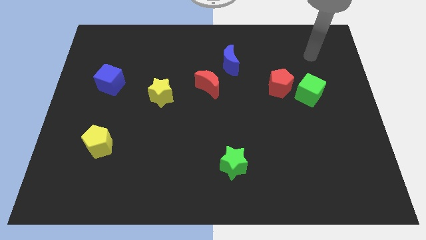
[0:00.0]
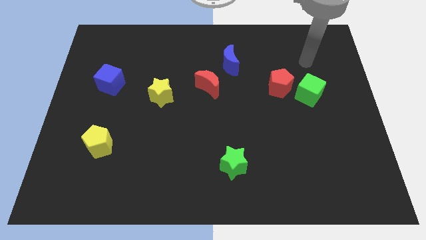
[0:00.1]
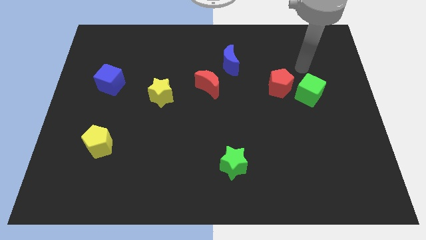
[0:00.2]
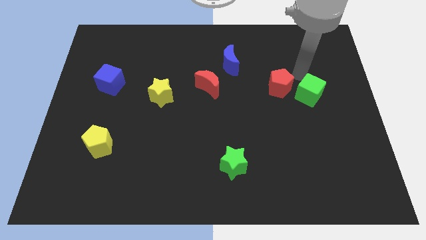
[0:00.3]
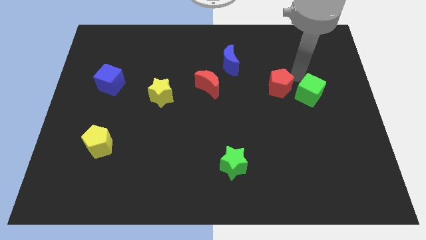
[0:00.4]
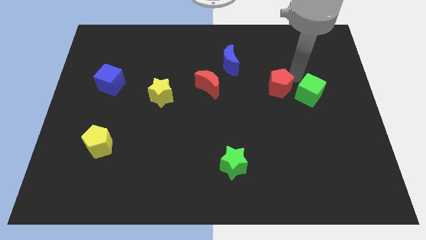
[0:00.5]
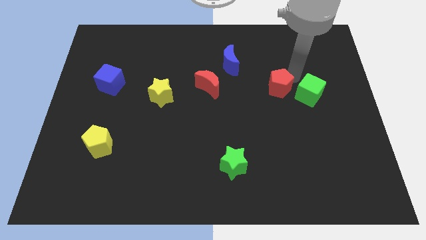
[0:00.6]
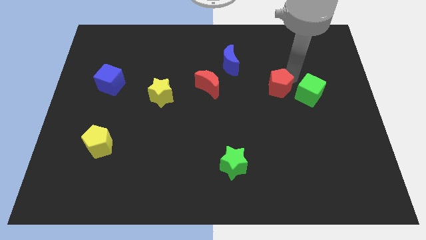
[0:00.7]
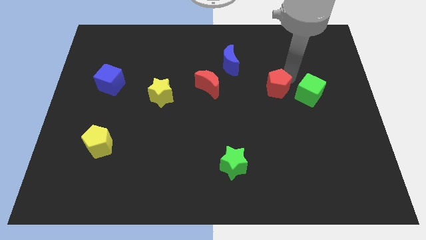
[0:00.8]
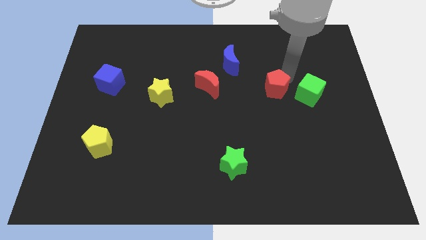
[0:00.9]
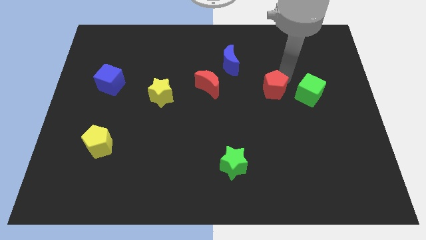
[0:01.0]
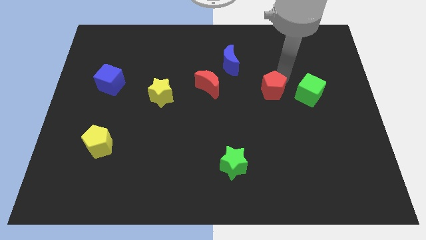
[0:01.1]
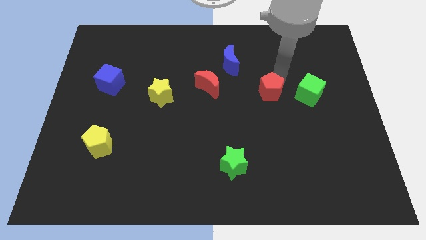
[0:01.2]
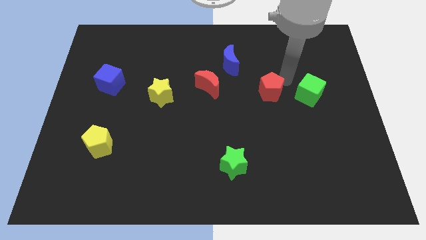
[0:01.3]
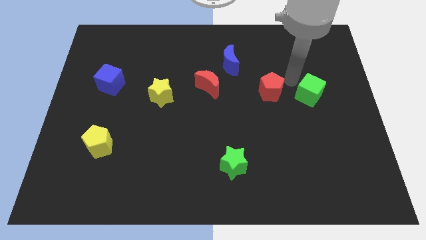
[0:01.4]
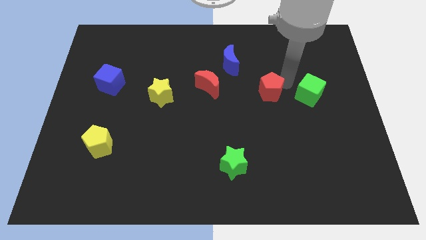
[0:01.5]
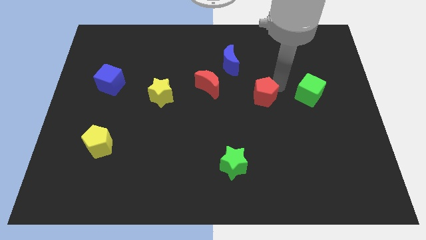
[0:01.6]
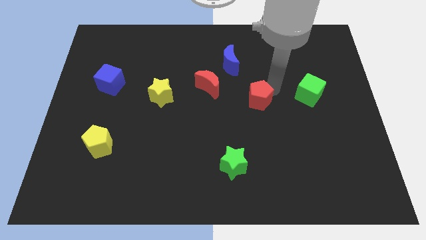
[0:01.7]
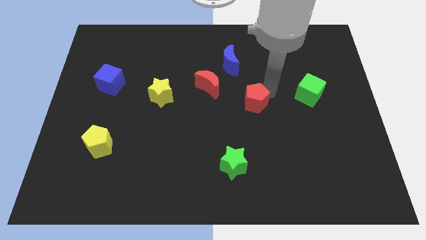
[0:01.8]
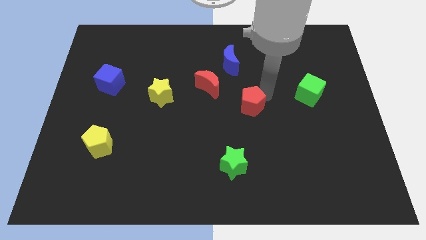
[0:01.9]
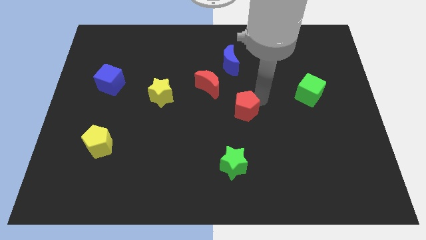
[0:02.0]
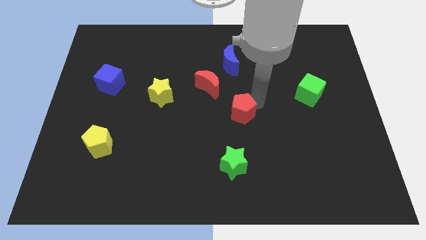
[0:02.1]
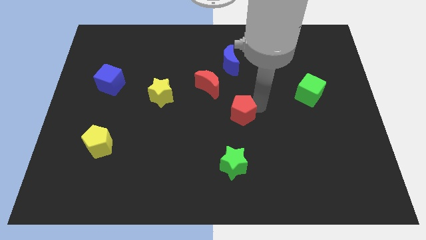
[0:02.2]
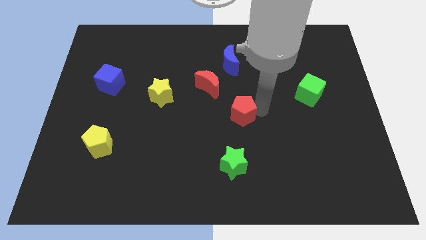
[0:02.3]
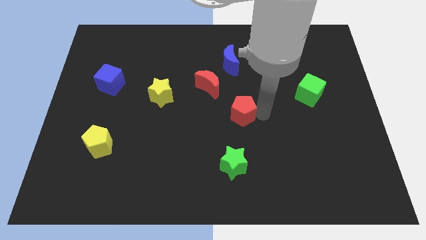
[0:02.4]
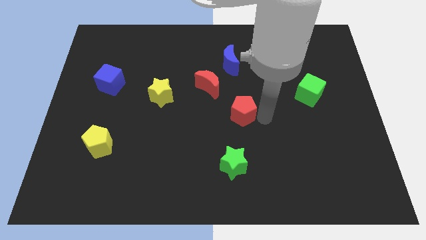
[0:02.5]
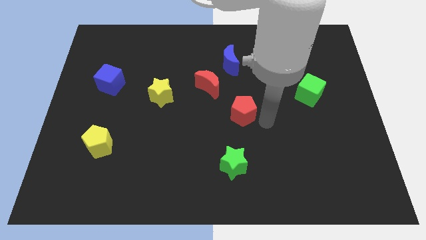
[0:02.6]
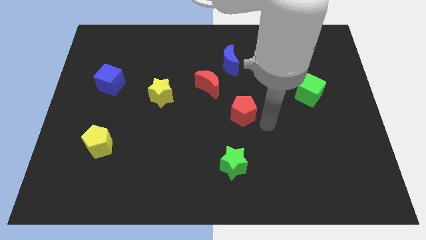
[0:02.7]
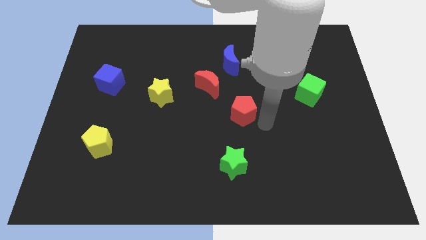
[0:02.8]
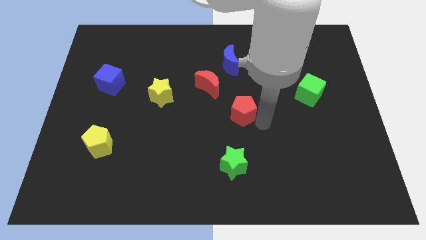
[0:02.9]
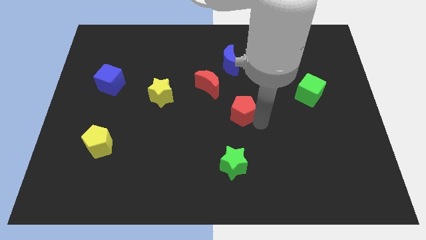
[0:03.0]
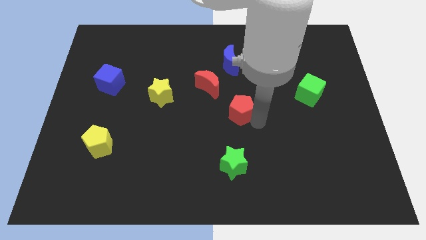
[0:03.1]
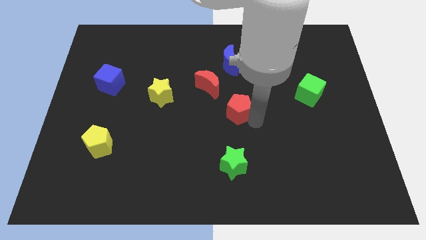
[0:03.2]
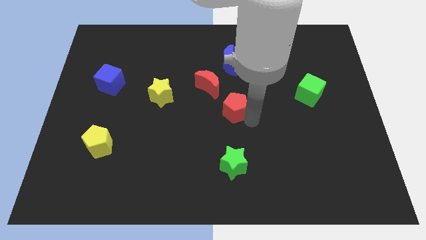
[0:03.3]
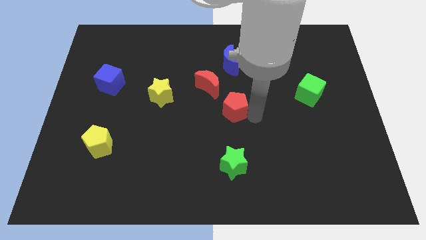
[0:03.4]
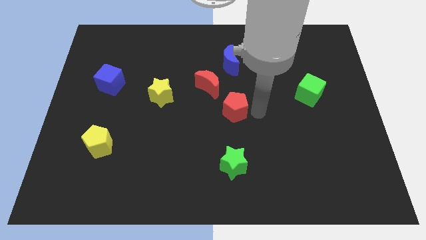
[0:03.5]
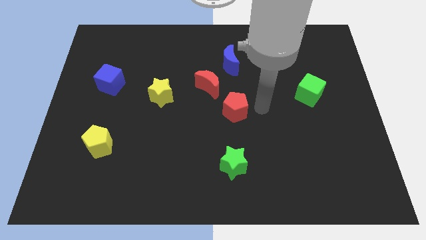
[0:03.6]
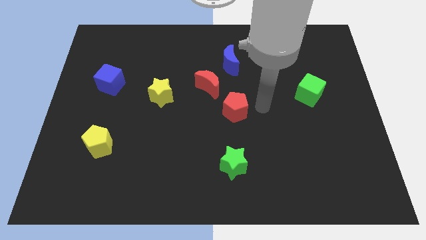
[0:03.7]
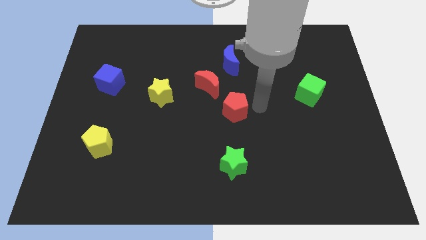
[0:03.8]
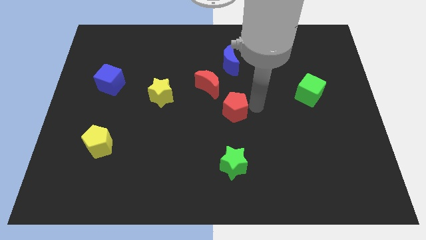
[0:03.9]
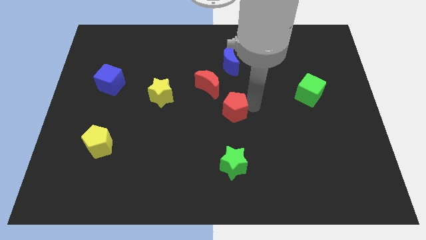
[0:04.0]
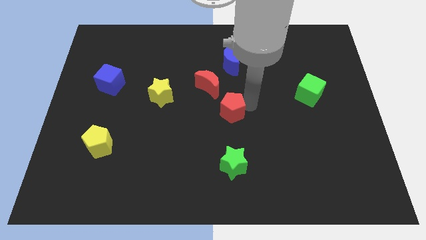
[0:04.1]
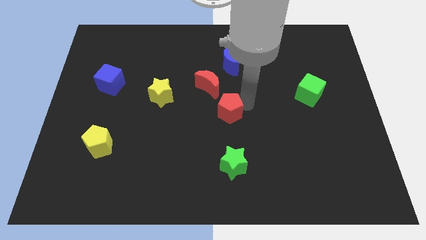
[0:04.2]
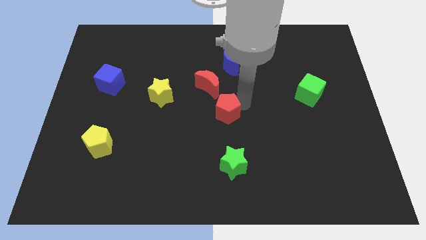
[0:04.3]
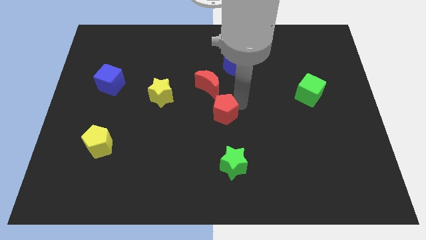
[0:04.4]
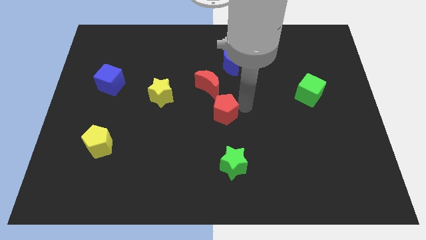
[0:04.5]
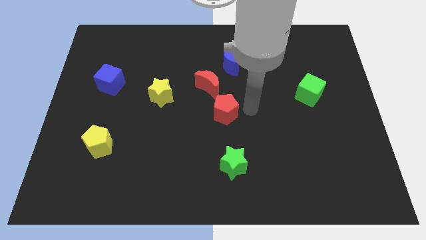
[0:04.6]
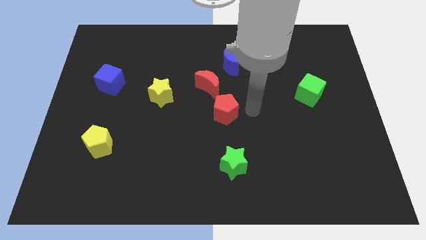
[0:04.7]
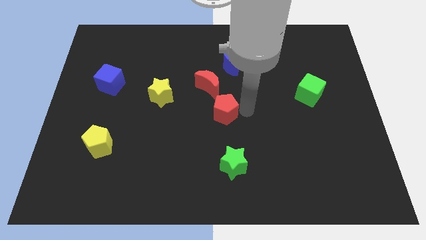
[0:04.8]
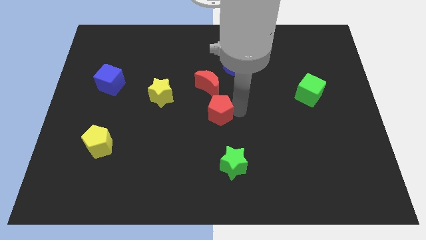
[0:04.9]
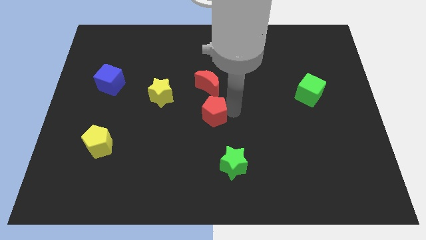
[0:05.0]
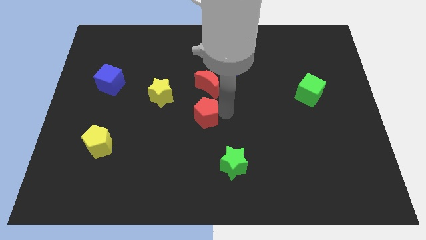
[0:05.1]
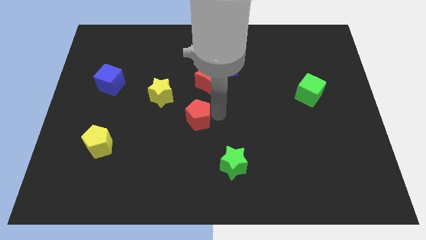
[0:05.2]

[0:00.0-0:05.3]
move the red pentagon to the bottom right of the yellow star

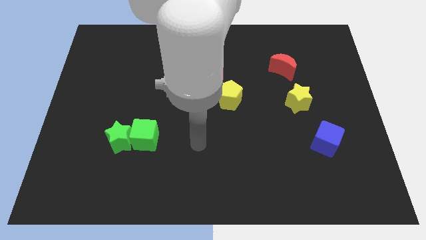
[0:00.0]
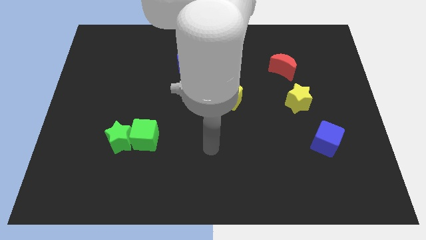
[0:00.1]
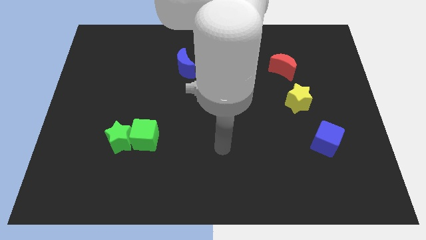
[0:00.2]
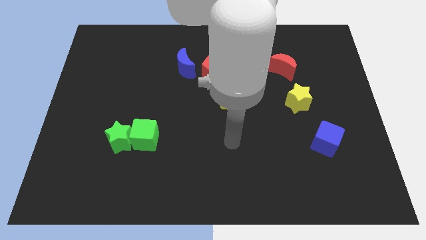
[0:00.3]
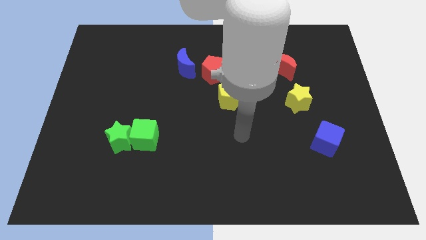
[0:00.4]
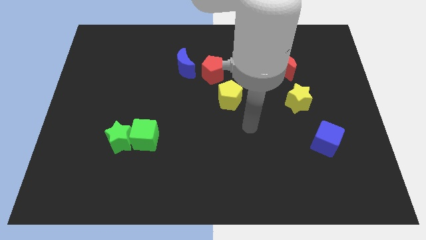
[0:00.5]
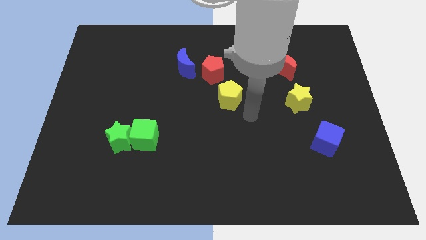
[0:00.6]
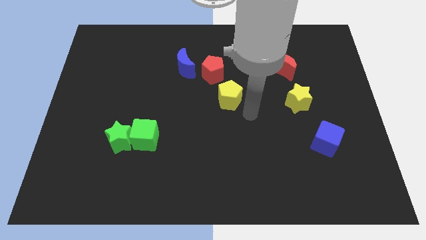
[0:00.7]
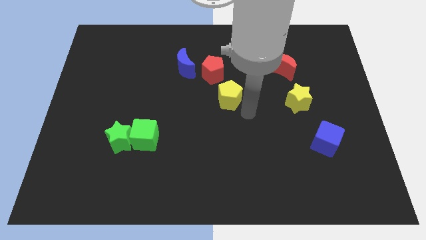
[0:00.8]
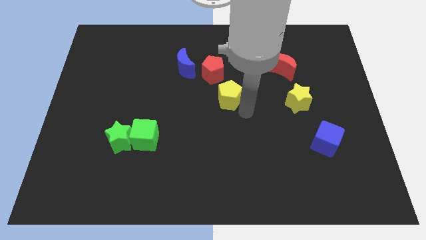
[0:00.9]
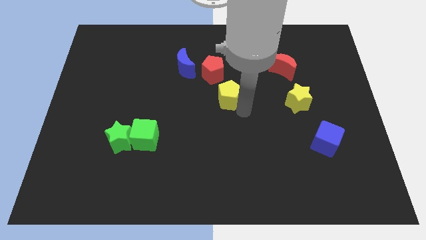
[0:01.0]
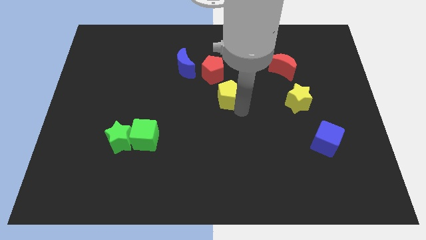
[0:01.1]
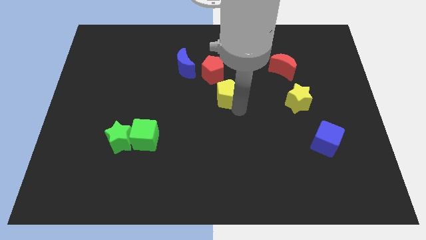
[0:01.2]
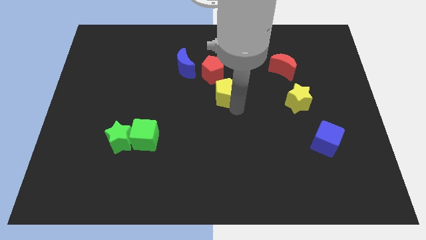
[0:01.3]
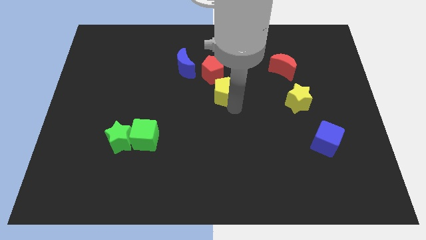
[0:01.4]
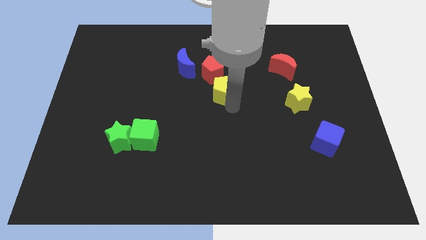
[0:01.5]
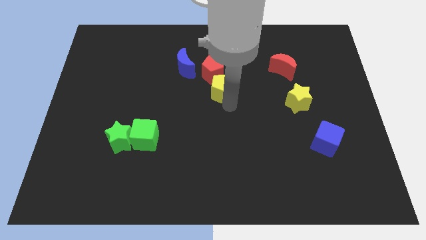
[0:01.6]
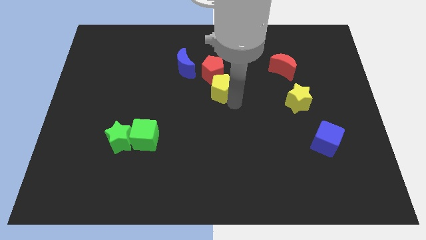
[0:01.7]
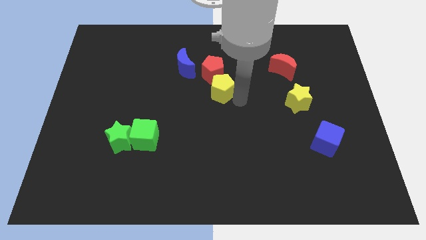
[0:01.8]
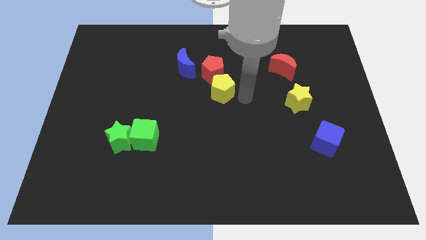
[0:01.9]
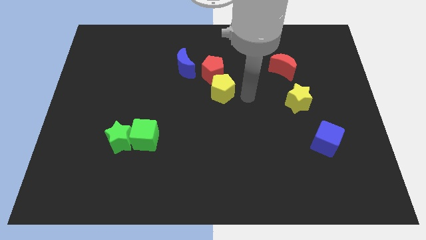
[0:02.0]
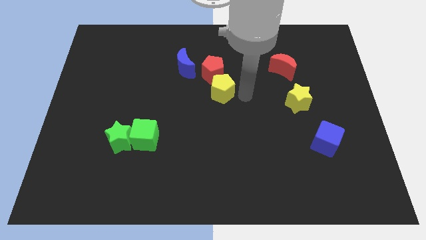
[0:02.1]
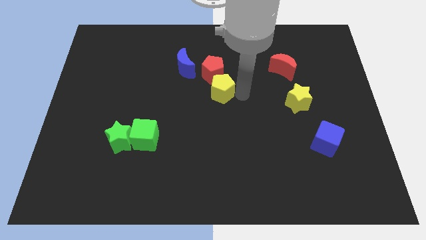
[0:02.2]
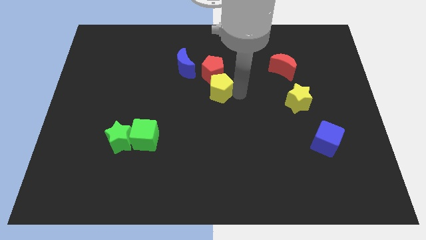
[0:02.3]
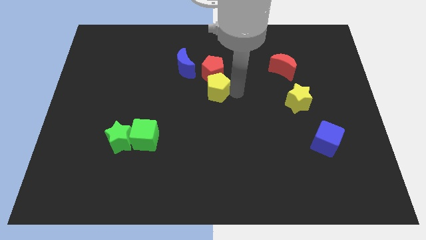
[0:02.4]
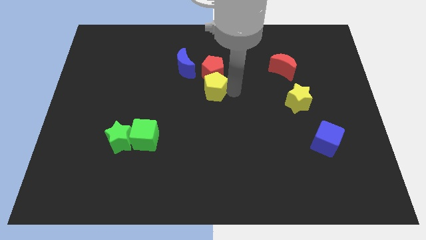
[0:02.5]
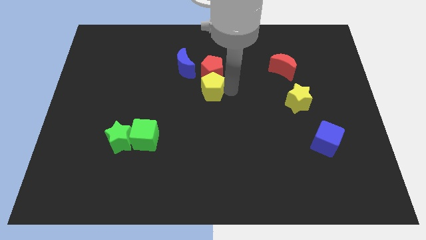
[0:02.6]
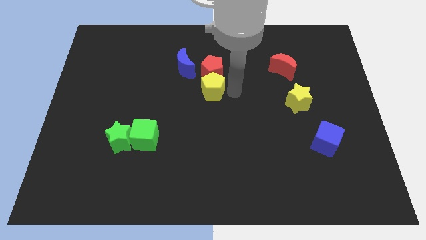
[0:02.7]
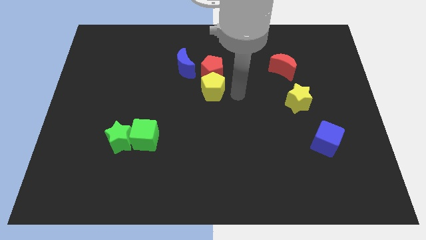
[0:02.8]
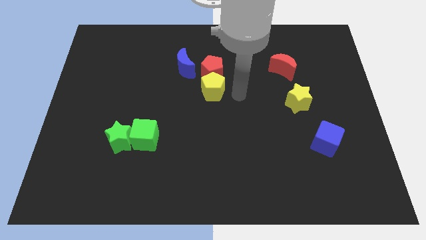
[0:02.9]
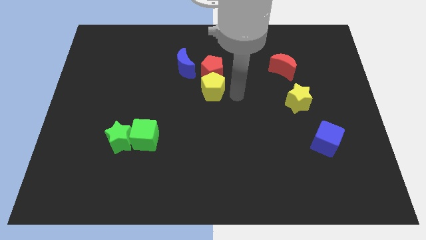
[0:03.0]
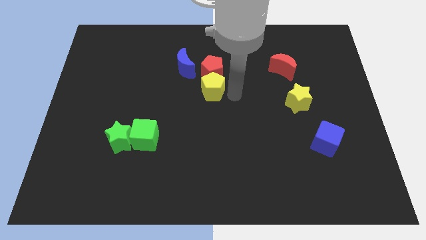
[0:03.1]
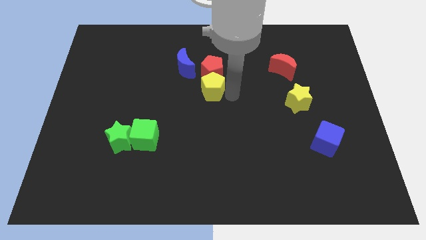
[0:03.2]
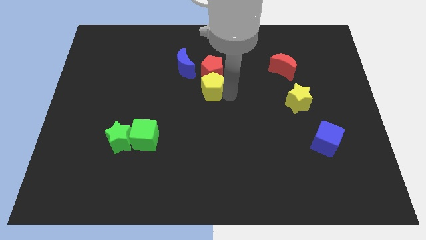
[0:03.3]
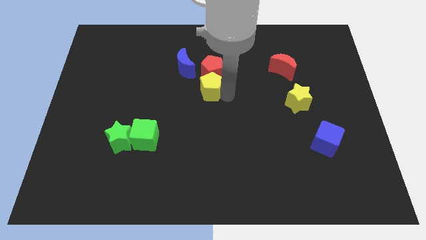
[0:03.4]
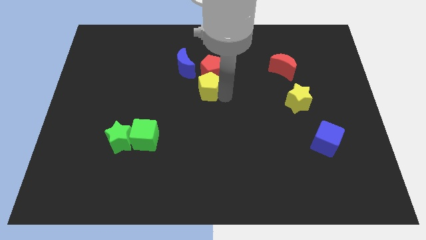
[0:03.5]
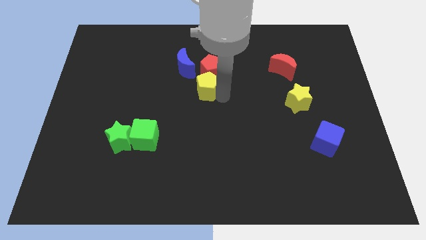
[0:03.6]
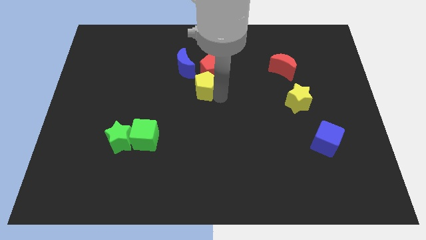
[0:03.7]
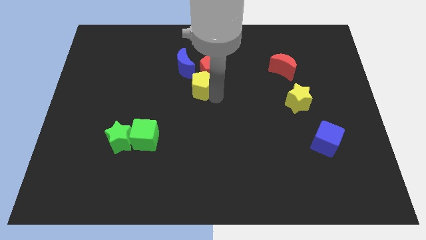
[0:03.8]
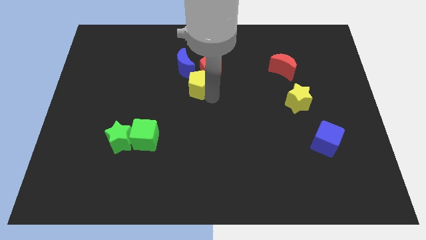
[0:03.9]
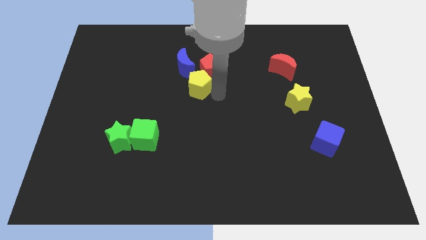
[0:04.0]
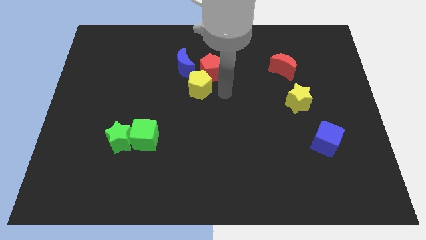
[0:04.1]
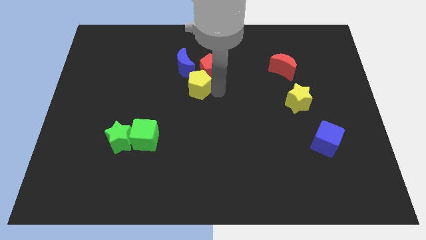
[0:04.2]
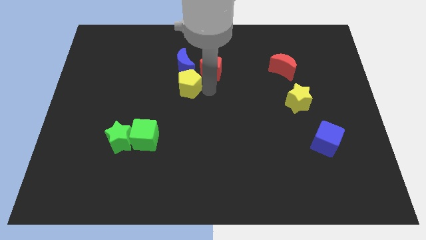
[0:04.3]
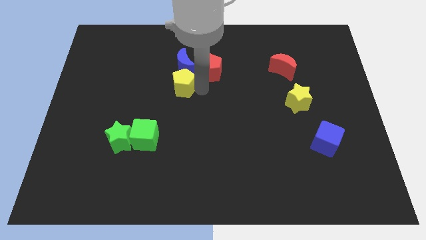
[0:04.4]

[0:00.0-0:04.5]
slide the yellow pentagon diagonally down and to the left of the blue moon
